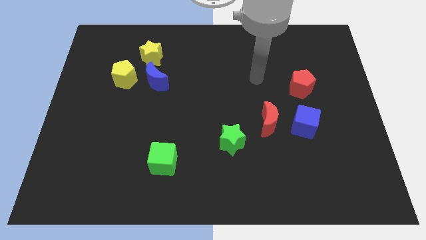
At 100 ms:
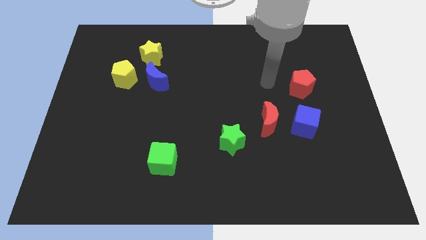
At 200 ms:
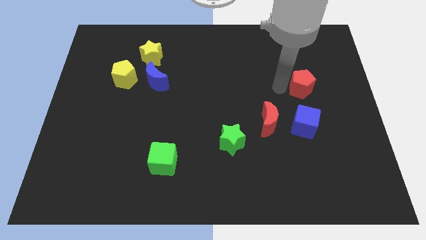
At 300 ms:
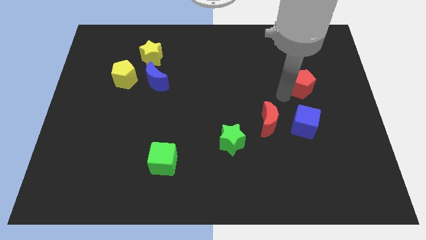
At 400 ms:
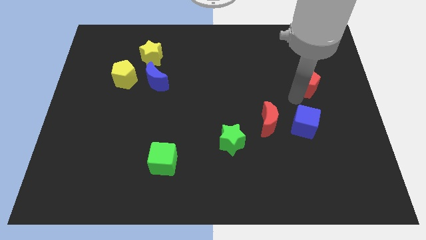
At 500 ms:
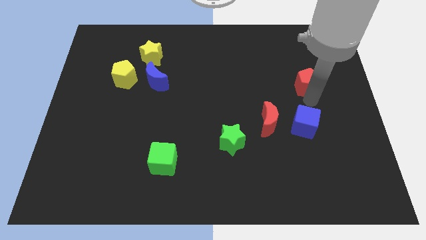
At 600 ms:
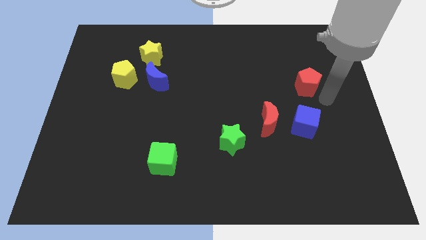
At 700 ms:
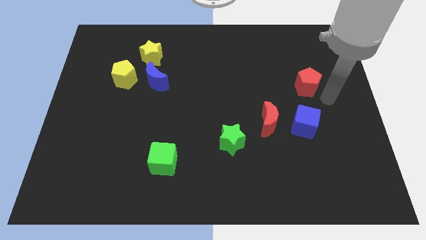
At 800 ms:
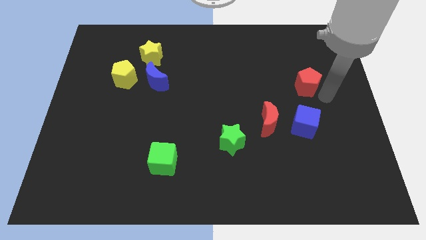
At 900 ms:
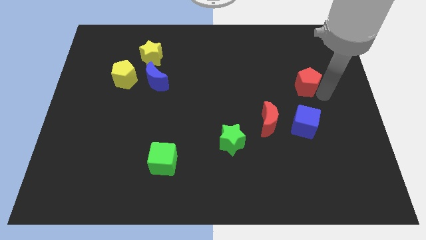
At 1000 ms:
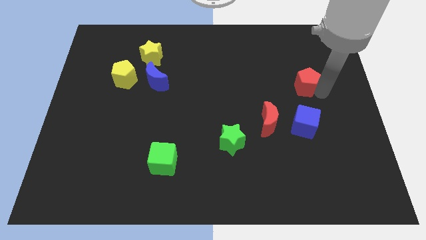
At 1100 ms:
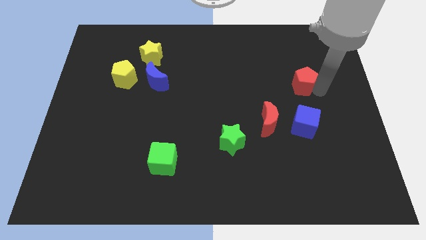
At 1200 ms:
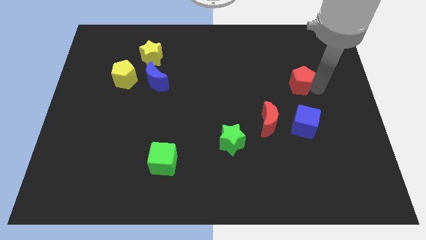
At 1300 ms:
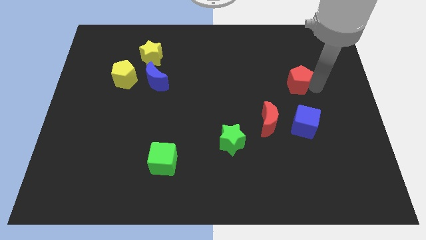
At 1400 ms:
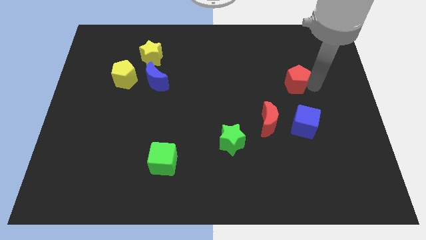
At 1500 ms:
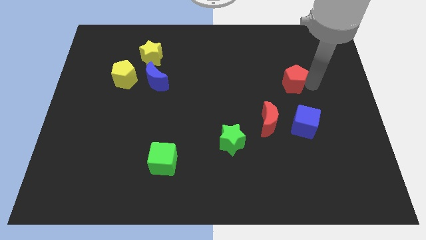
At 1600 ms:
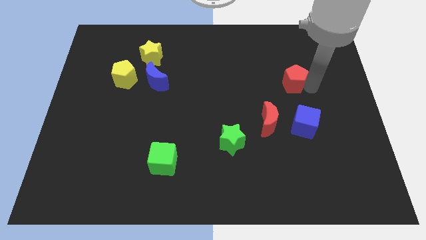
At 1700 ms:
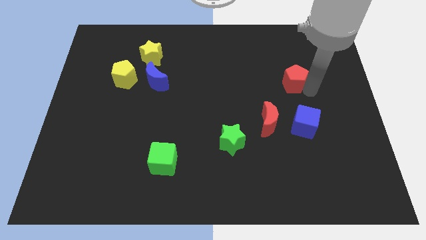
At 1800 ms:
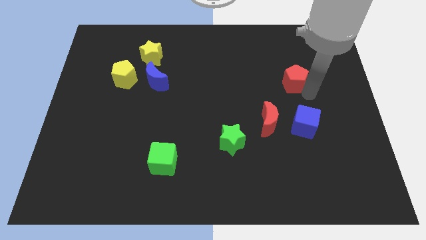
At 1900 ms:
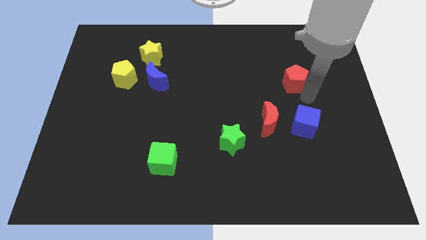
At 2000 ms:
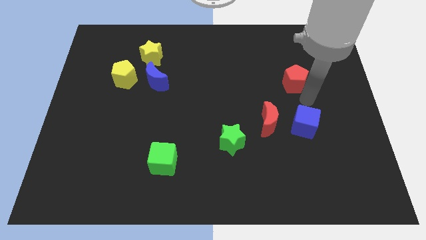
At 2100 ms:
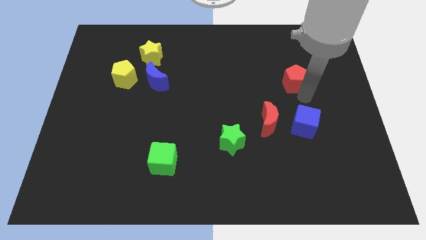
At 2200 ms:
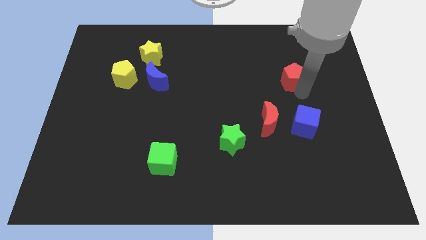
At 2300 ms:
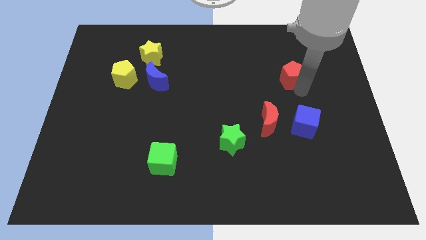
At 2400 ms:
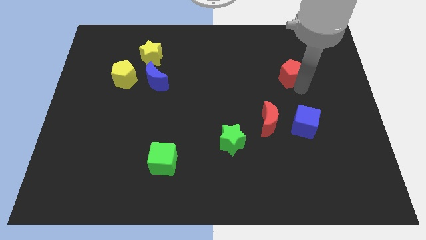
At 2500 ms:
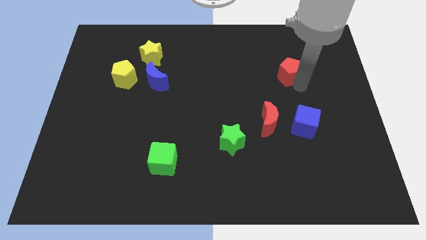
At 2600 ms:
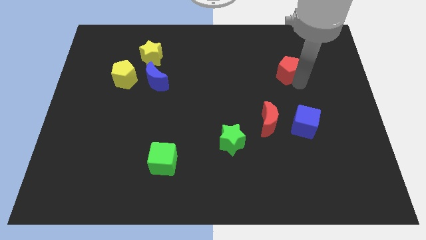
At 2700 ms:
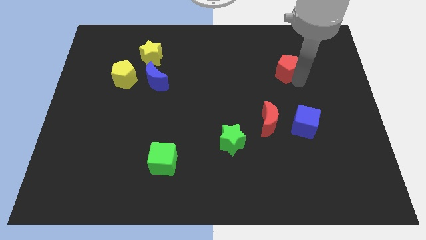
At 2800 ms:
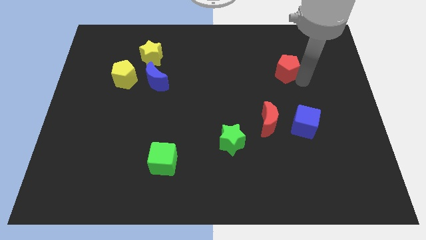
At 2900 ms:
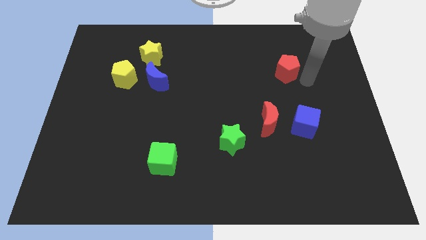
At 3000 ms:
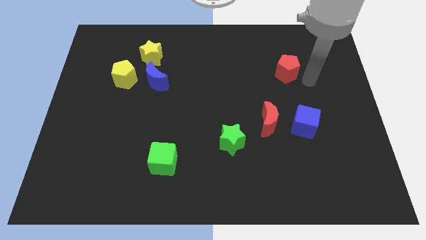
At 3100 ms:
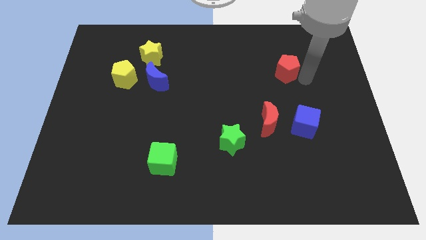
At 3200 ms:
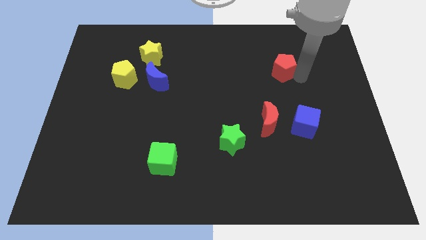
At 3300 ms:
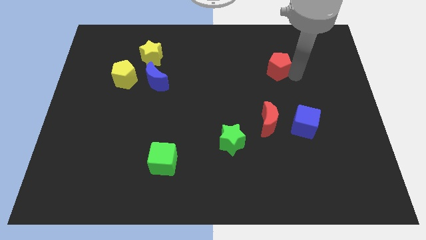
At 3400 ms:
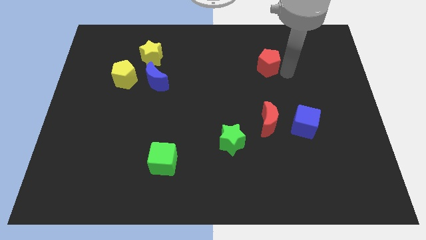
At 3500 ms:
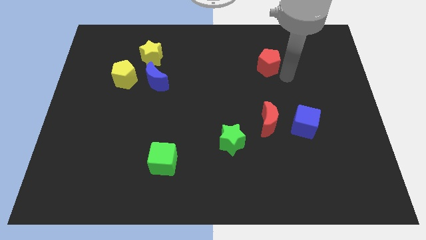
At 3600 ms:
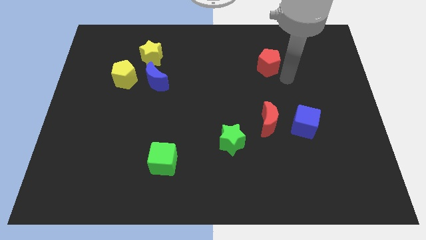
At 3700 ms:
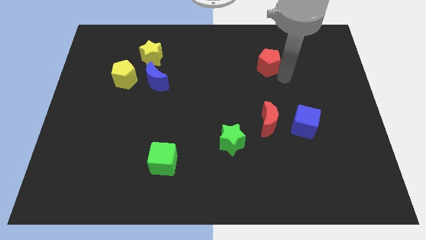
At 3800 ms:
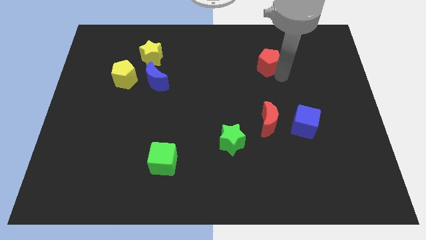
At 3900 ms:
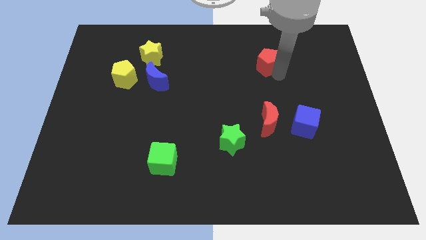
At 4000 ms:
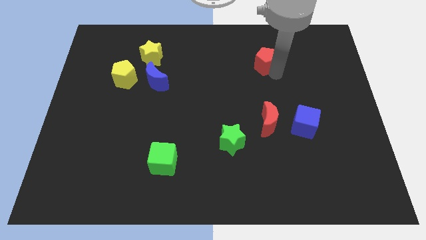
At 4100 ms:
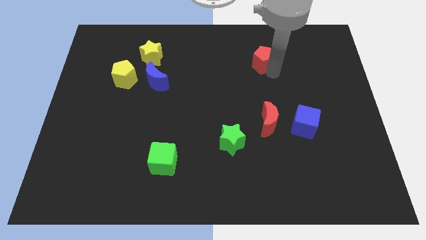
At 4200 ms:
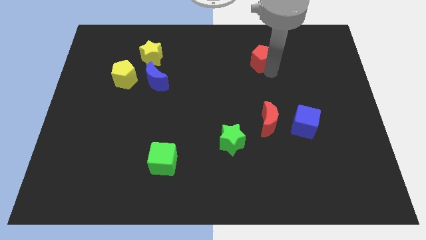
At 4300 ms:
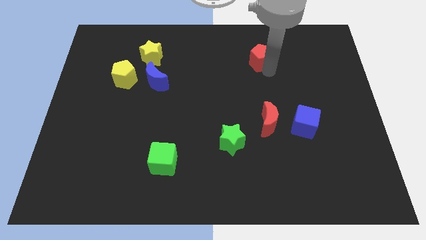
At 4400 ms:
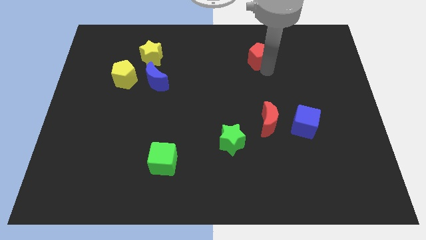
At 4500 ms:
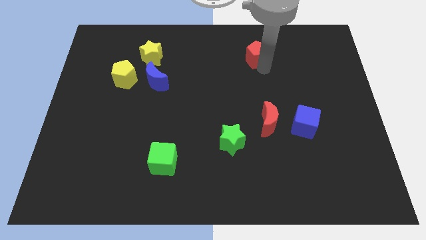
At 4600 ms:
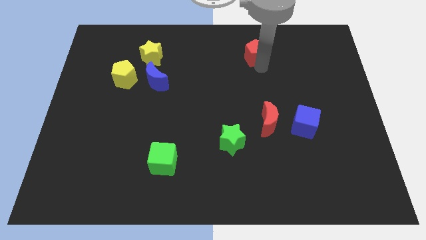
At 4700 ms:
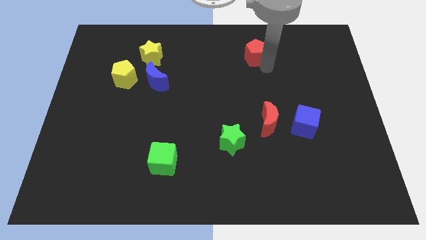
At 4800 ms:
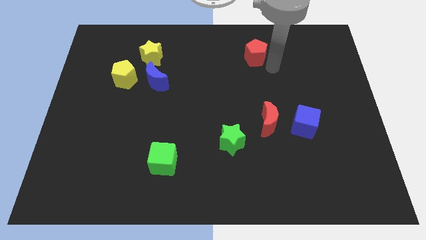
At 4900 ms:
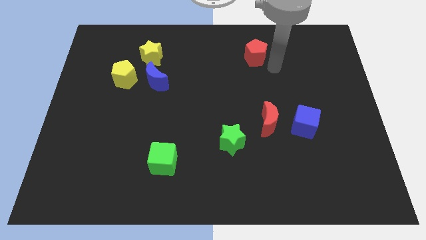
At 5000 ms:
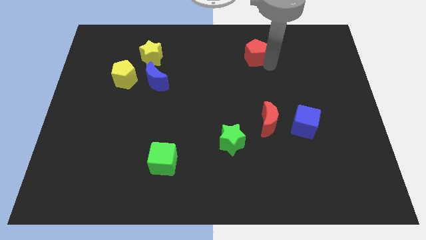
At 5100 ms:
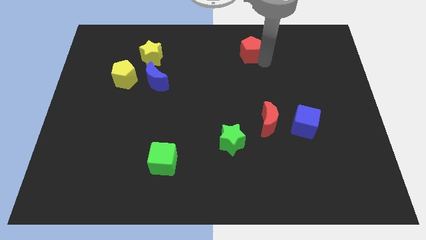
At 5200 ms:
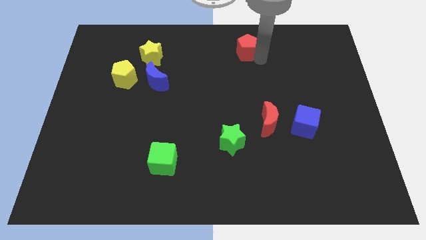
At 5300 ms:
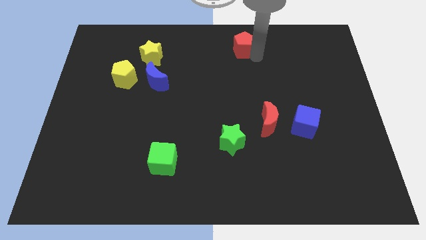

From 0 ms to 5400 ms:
put the red pentagon to the towards your base
